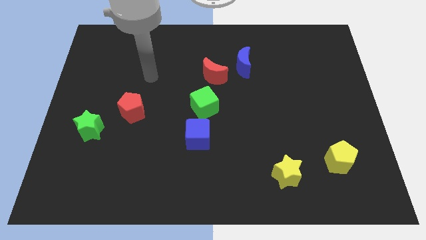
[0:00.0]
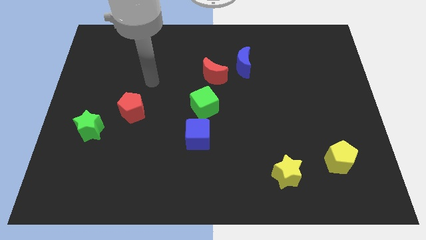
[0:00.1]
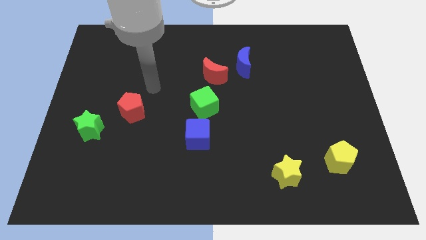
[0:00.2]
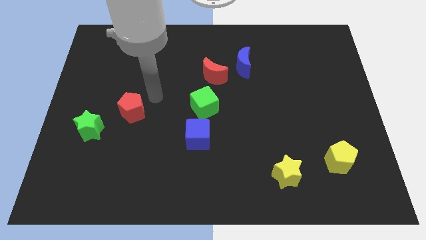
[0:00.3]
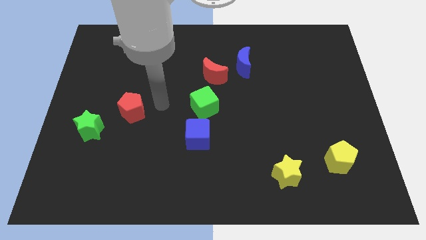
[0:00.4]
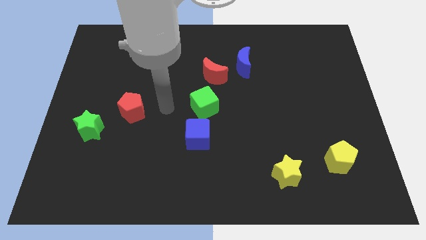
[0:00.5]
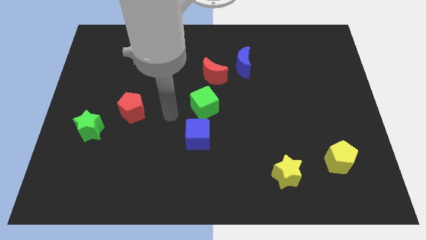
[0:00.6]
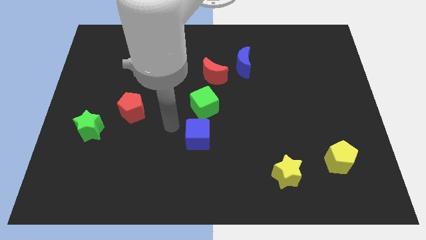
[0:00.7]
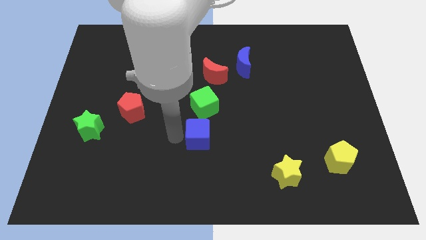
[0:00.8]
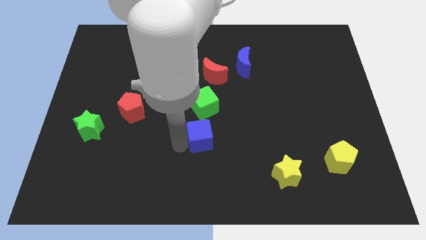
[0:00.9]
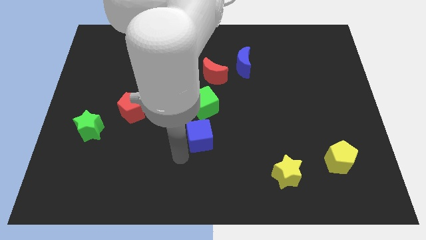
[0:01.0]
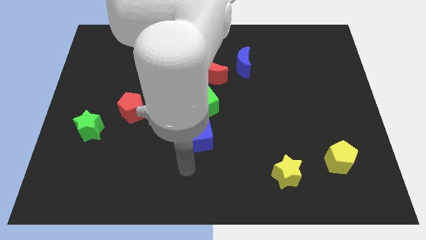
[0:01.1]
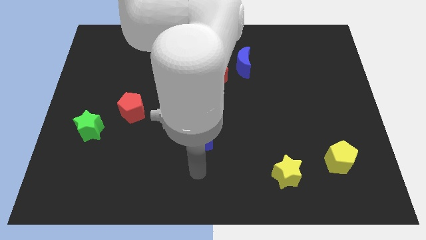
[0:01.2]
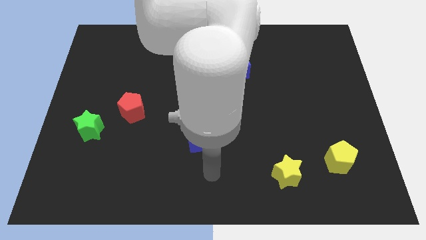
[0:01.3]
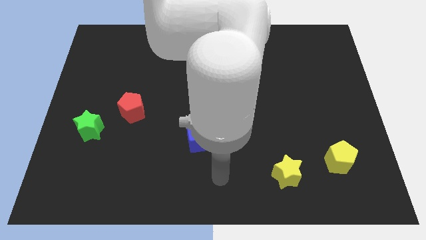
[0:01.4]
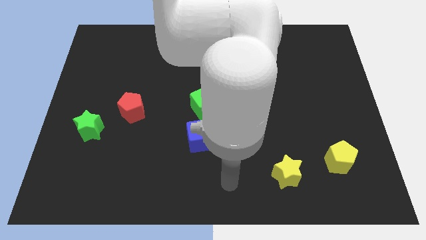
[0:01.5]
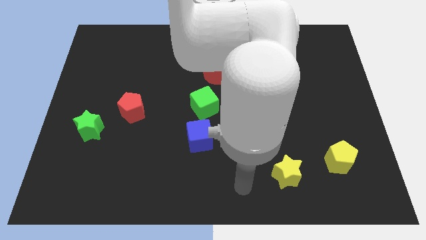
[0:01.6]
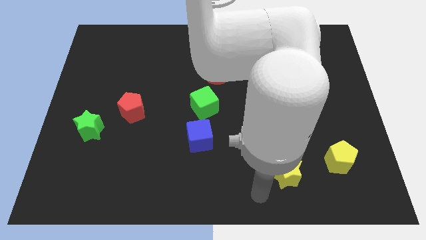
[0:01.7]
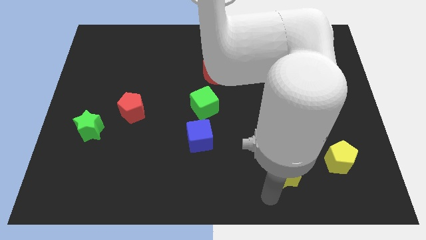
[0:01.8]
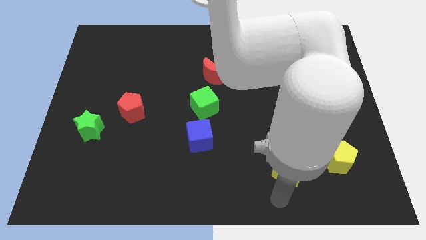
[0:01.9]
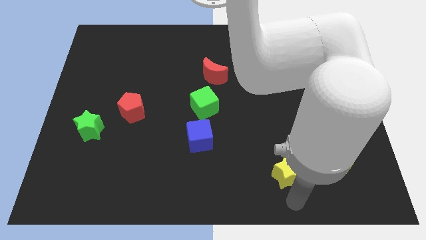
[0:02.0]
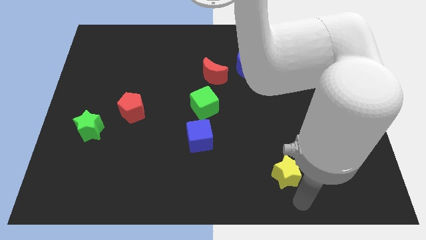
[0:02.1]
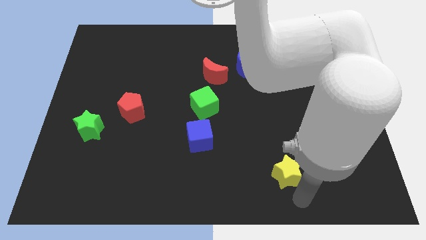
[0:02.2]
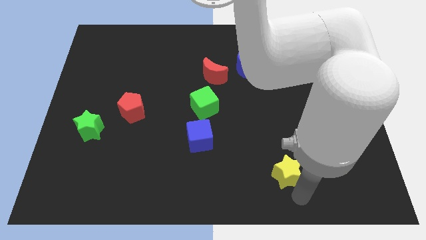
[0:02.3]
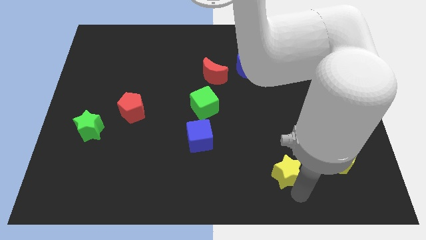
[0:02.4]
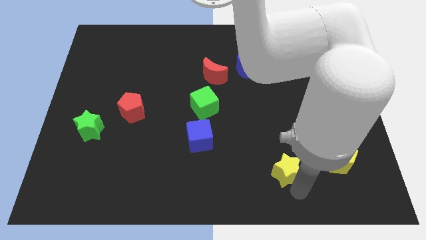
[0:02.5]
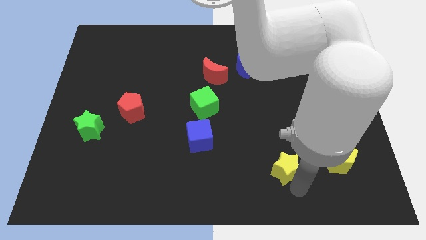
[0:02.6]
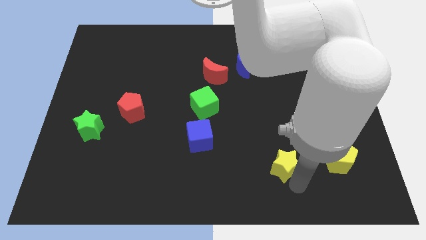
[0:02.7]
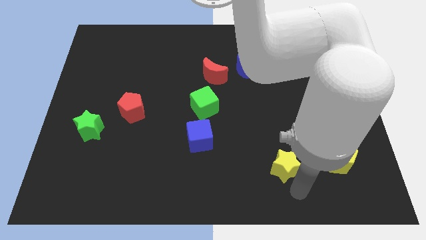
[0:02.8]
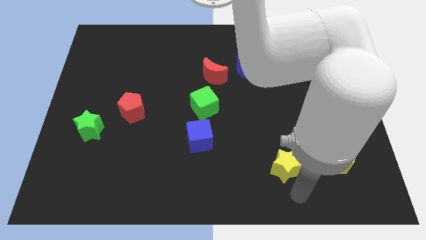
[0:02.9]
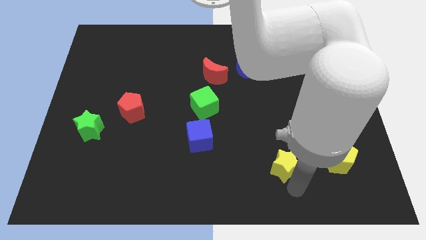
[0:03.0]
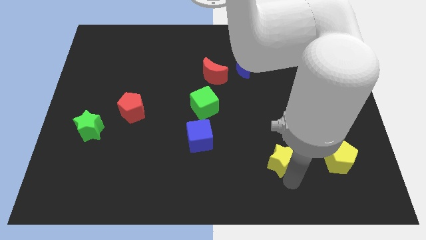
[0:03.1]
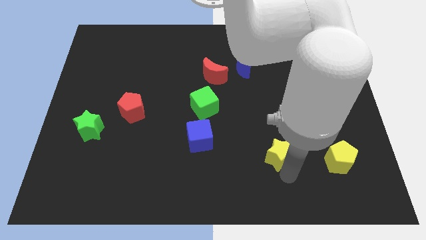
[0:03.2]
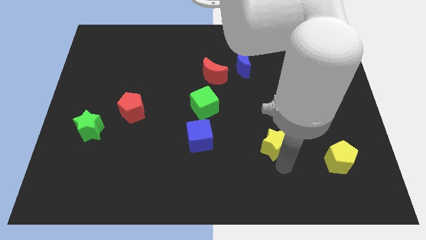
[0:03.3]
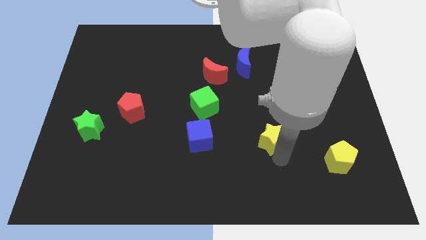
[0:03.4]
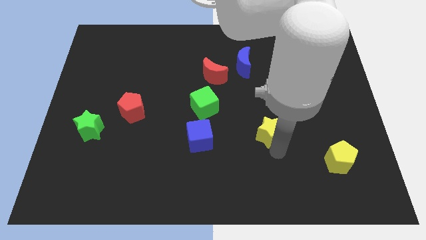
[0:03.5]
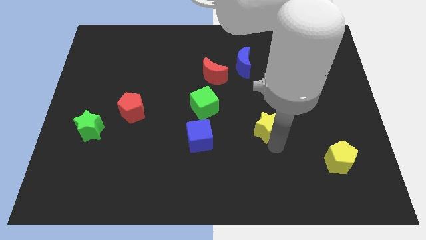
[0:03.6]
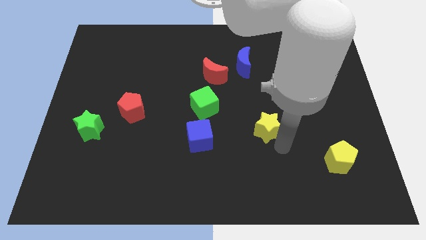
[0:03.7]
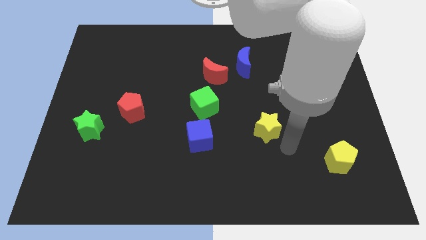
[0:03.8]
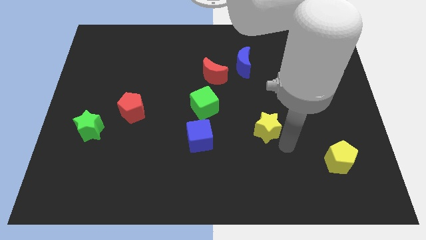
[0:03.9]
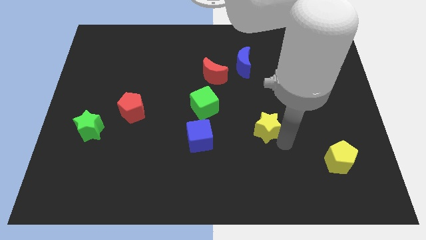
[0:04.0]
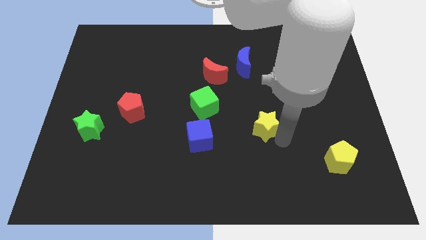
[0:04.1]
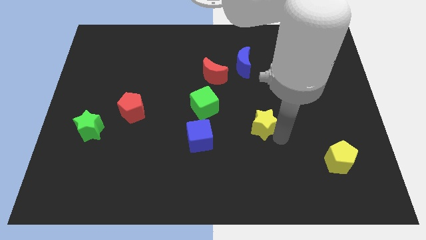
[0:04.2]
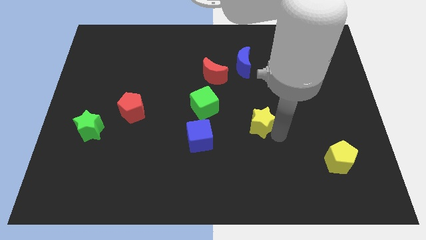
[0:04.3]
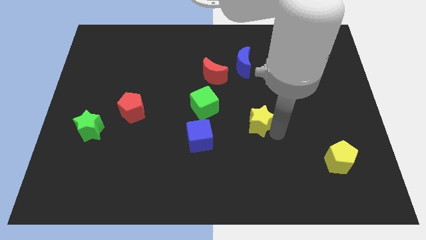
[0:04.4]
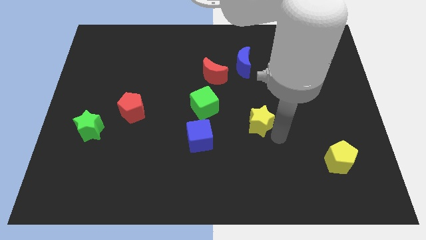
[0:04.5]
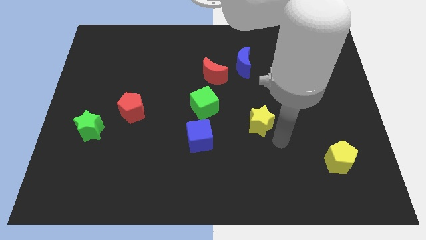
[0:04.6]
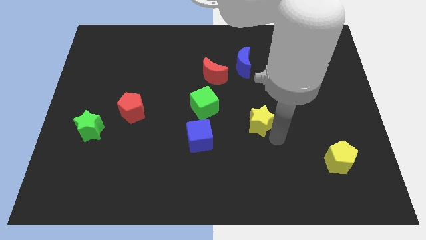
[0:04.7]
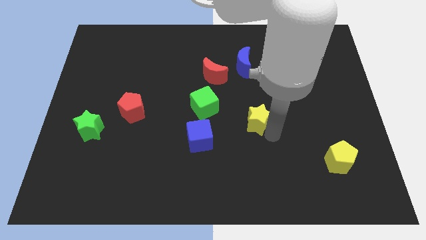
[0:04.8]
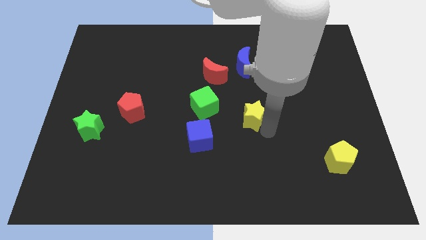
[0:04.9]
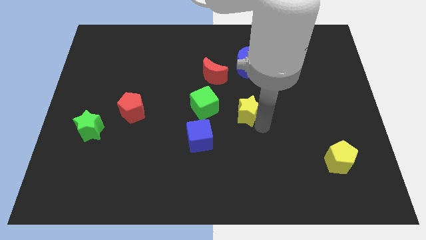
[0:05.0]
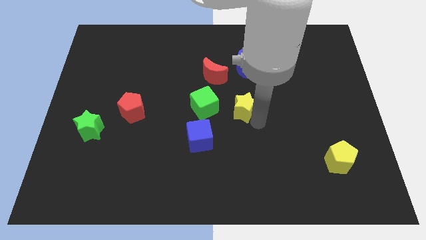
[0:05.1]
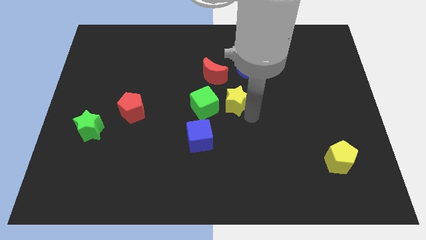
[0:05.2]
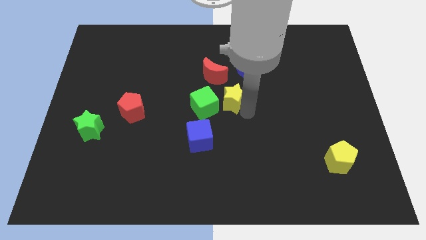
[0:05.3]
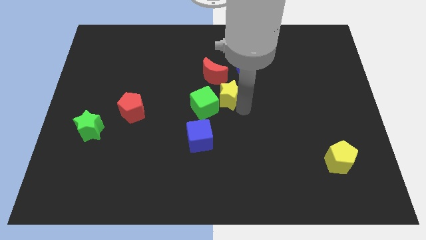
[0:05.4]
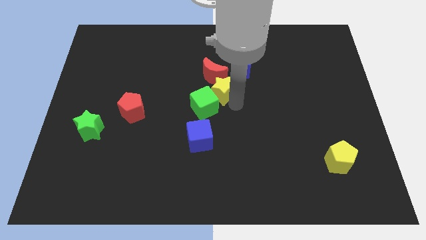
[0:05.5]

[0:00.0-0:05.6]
put the yellow star next to the red moon

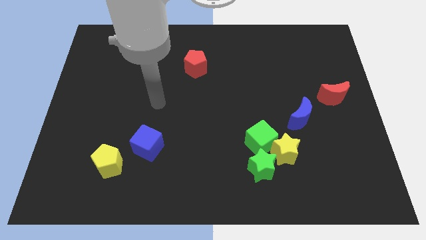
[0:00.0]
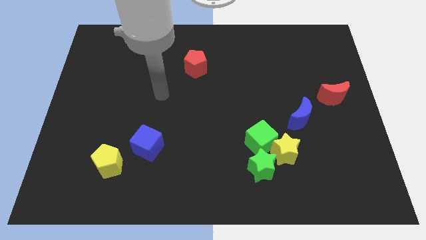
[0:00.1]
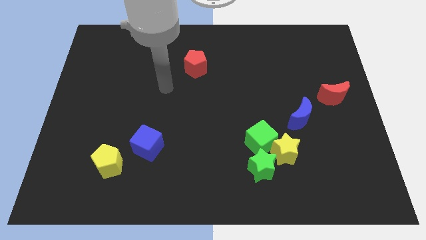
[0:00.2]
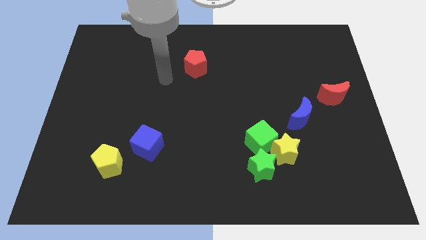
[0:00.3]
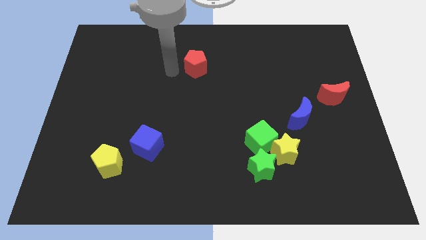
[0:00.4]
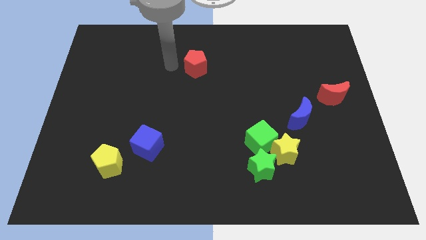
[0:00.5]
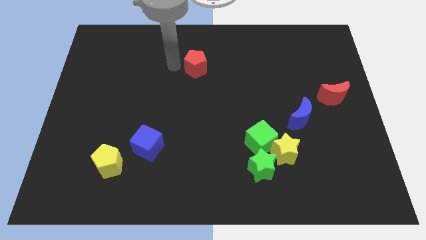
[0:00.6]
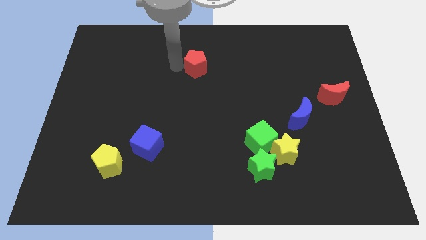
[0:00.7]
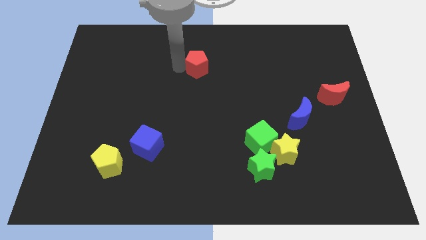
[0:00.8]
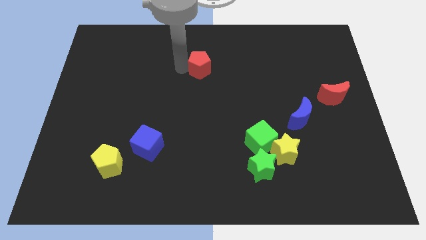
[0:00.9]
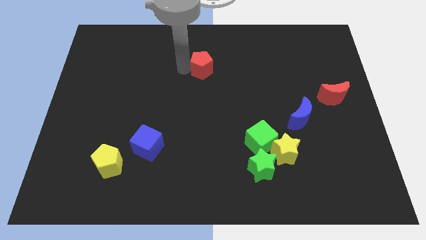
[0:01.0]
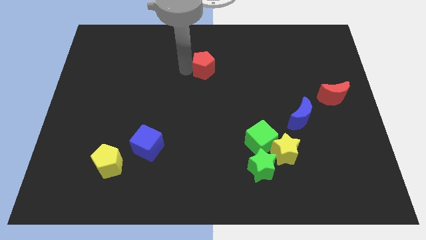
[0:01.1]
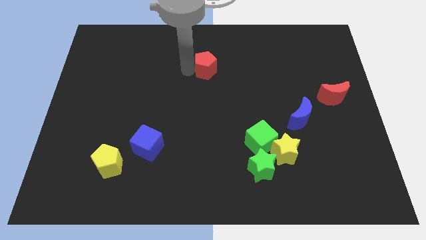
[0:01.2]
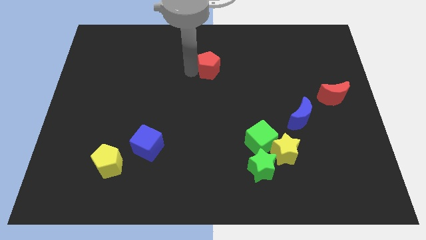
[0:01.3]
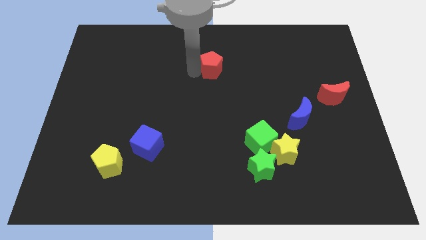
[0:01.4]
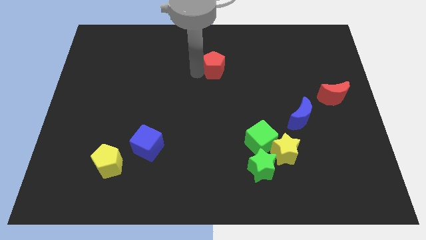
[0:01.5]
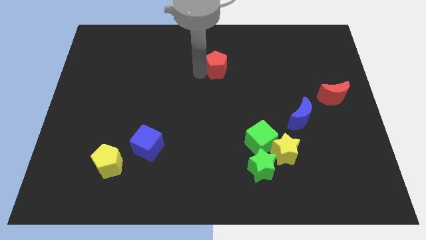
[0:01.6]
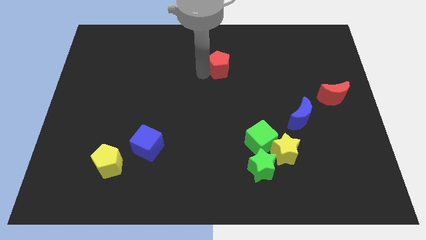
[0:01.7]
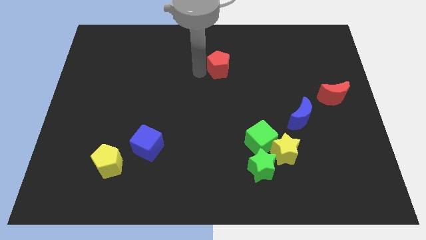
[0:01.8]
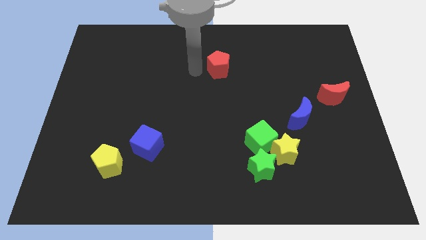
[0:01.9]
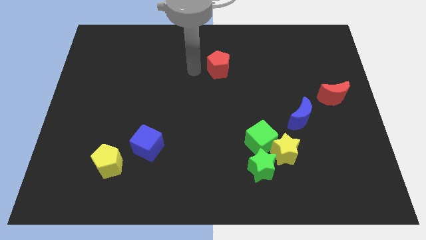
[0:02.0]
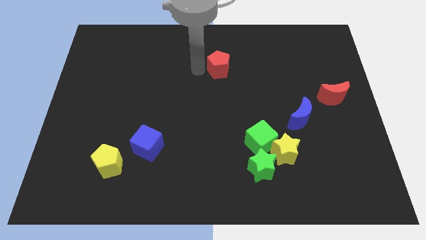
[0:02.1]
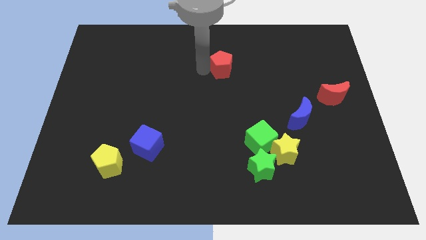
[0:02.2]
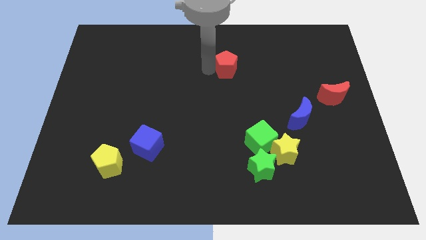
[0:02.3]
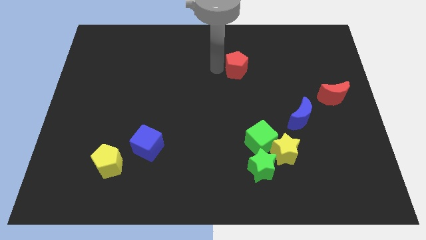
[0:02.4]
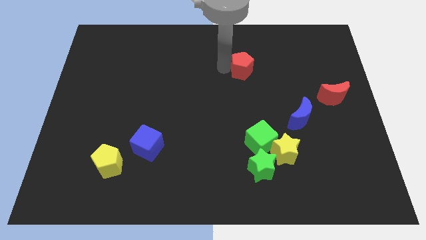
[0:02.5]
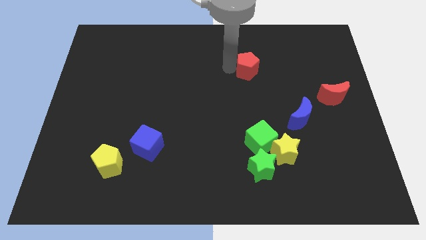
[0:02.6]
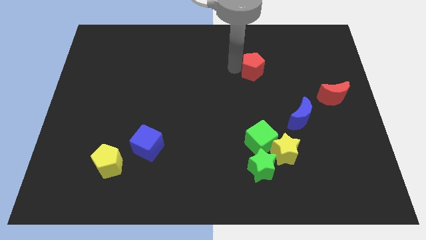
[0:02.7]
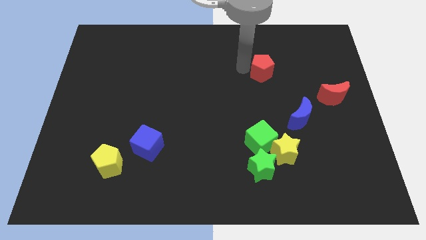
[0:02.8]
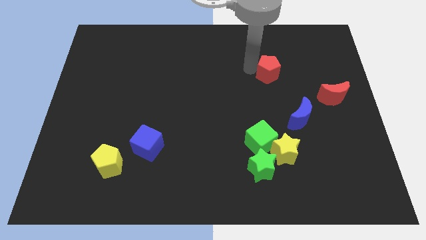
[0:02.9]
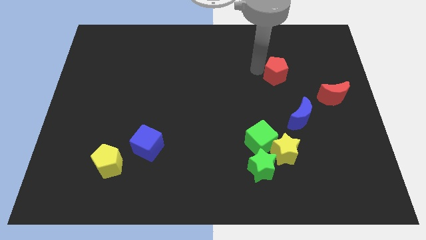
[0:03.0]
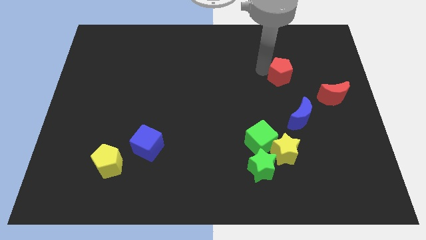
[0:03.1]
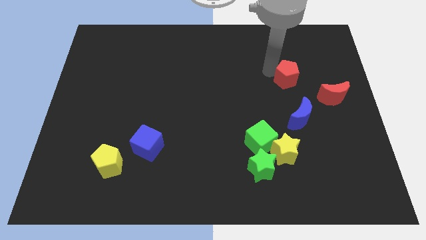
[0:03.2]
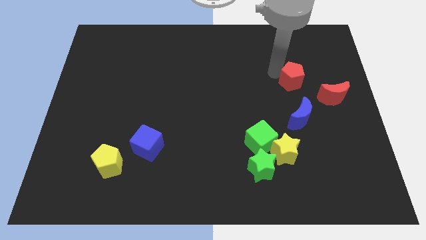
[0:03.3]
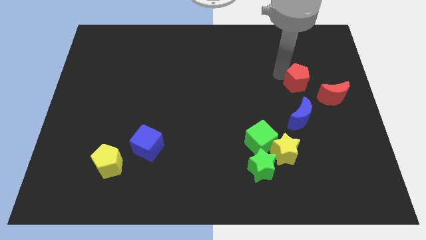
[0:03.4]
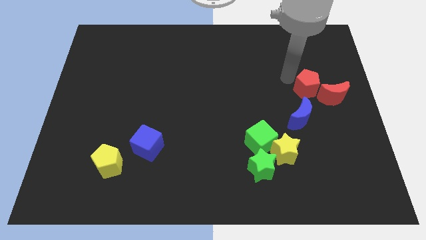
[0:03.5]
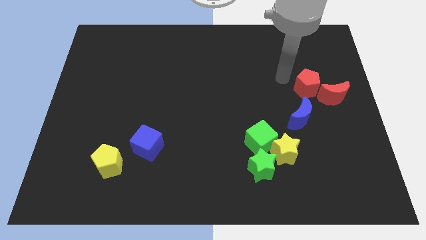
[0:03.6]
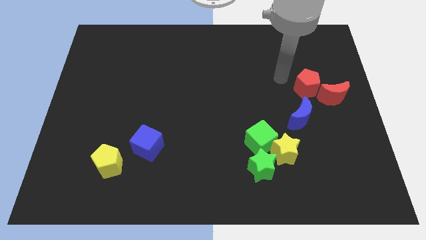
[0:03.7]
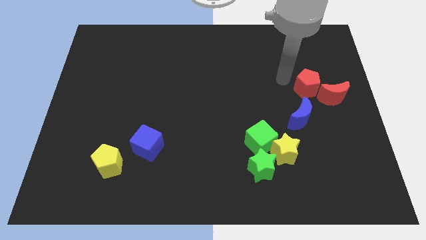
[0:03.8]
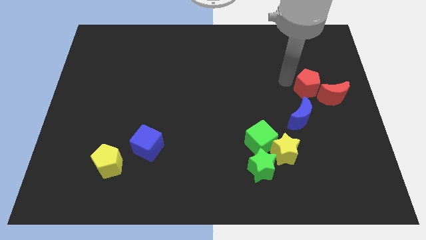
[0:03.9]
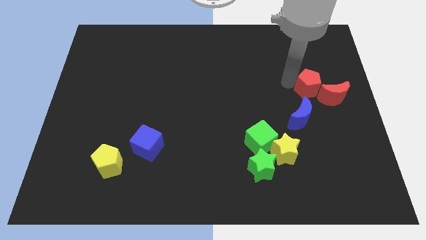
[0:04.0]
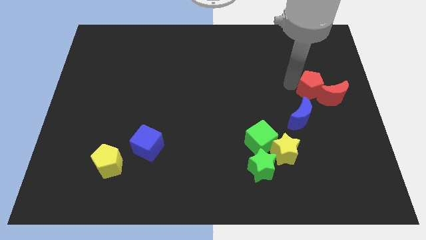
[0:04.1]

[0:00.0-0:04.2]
move the red pentagon towards the red moon
